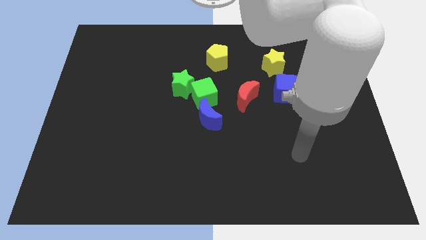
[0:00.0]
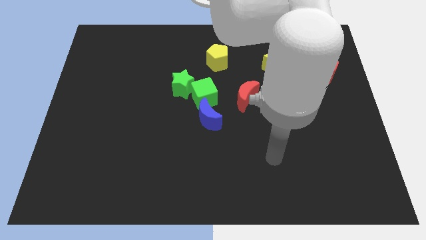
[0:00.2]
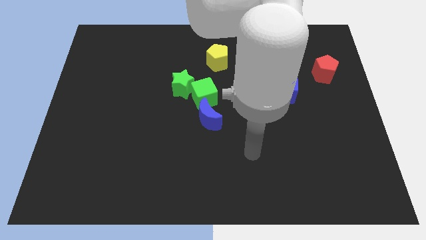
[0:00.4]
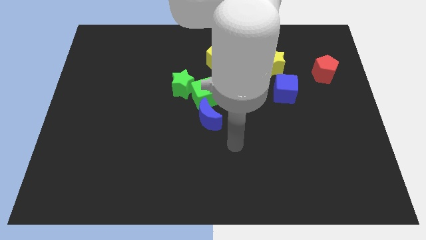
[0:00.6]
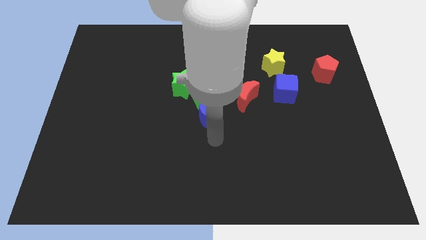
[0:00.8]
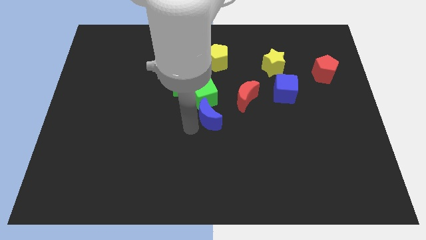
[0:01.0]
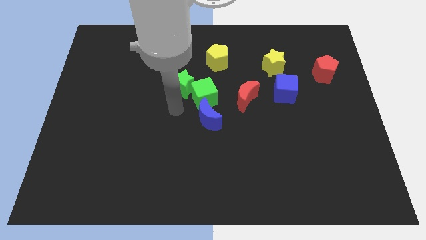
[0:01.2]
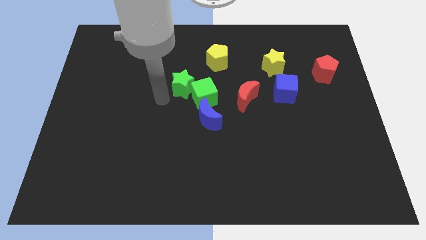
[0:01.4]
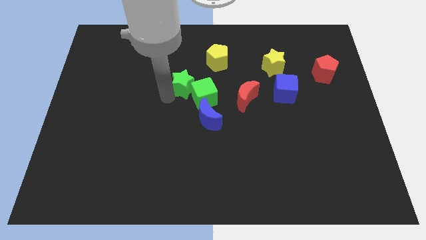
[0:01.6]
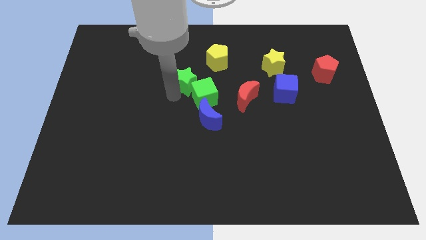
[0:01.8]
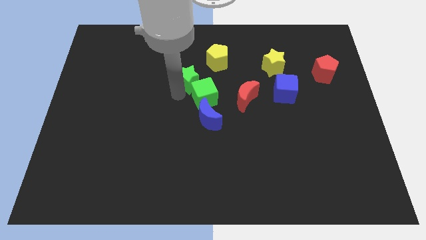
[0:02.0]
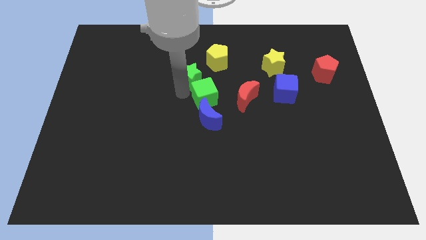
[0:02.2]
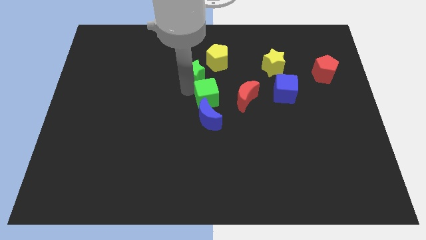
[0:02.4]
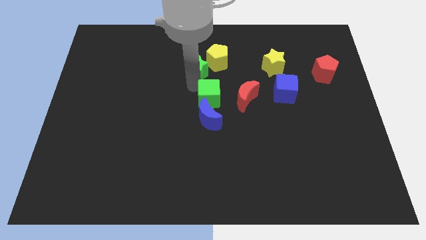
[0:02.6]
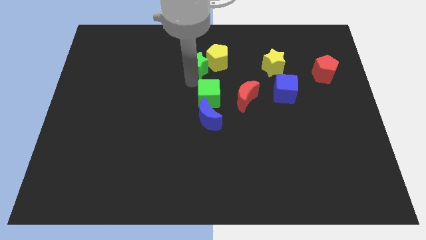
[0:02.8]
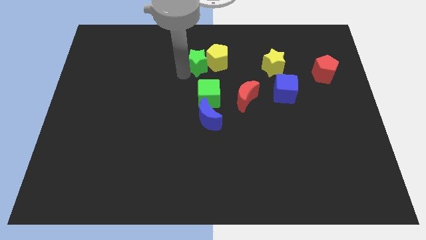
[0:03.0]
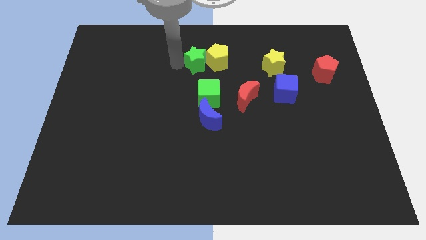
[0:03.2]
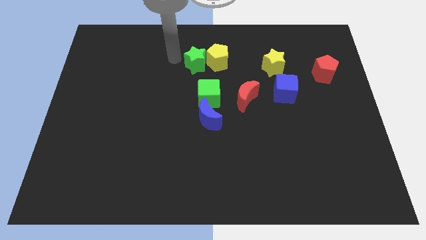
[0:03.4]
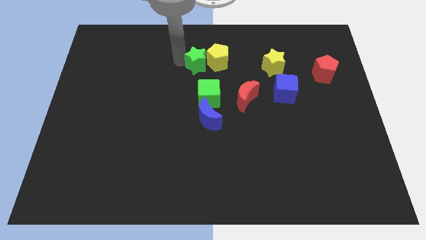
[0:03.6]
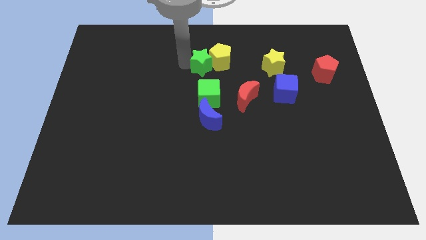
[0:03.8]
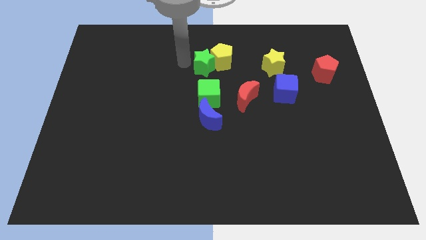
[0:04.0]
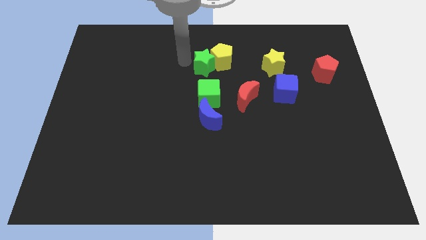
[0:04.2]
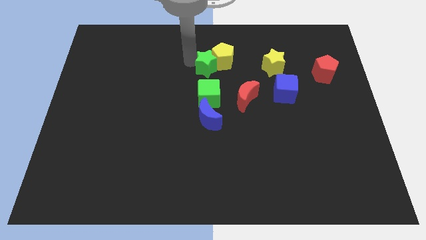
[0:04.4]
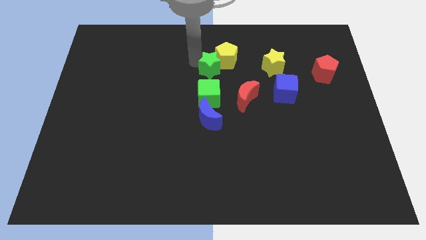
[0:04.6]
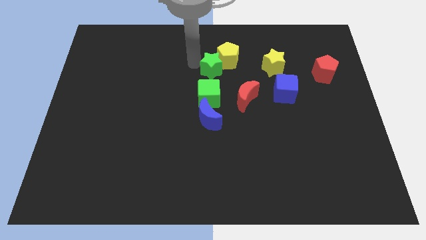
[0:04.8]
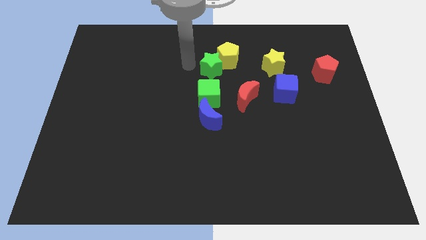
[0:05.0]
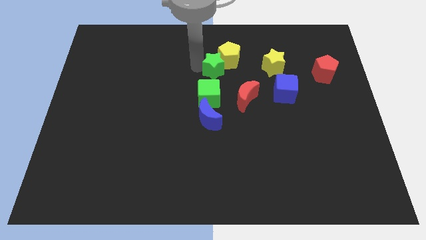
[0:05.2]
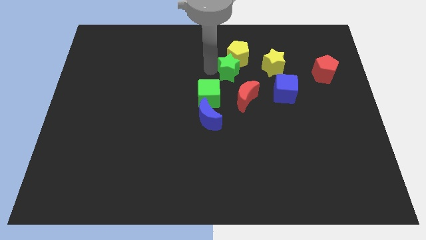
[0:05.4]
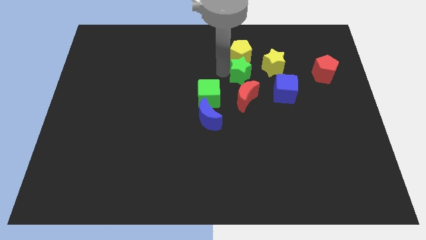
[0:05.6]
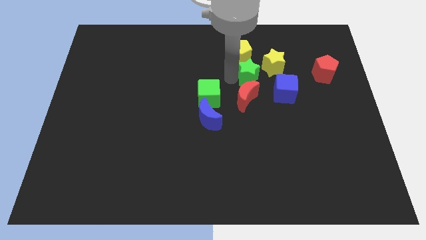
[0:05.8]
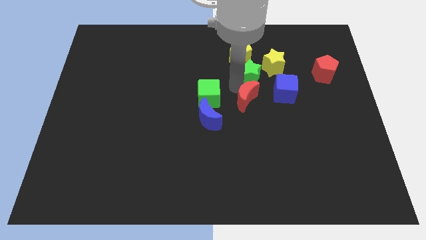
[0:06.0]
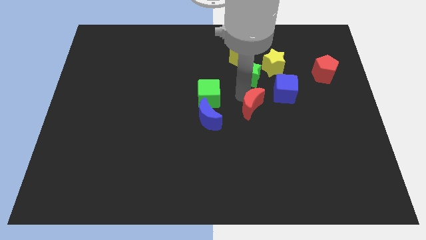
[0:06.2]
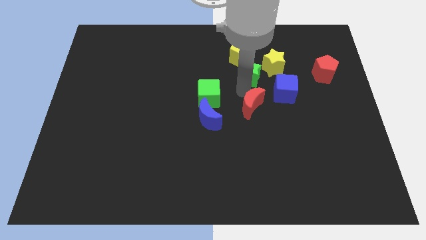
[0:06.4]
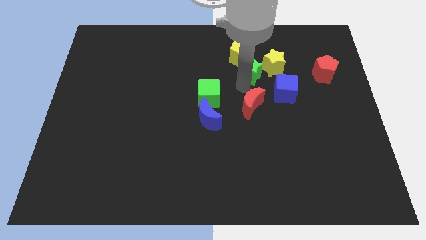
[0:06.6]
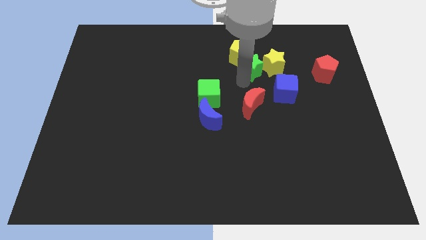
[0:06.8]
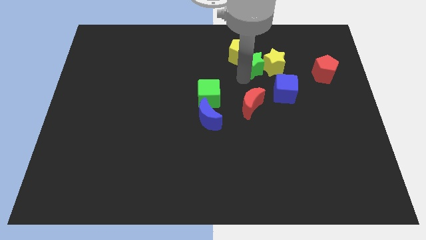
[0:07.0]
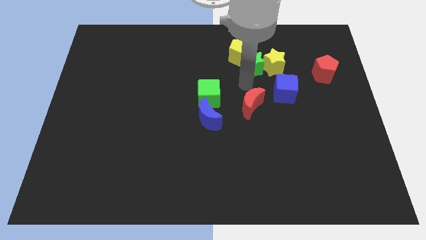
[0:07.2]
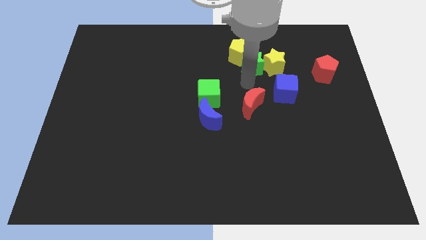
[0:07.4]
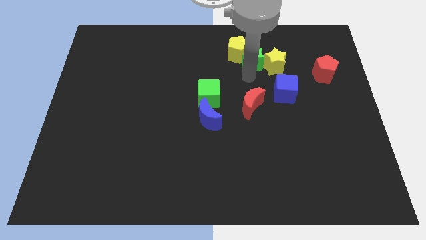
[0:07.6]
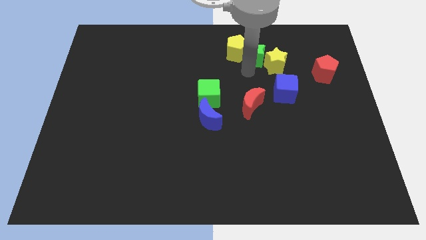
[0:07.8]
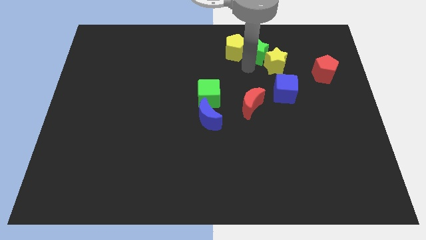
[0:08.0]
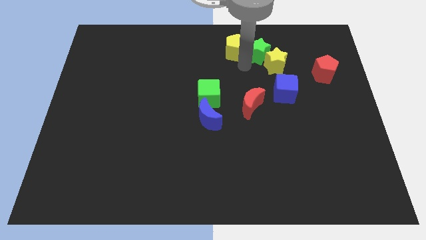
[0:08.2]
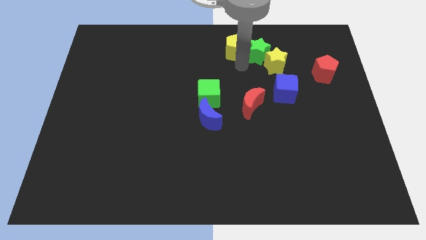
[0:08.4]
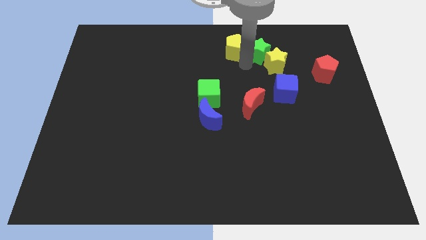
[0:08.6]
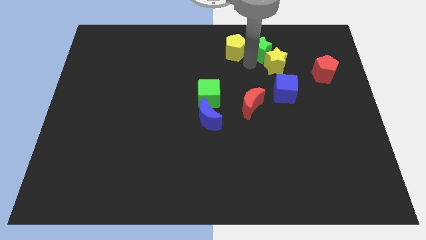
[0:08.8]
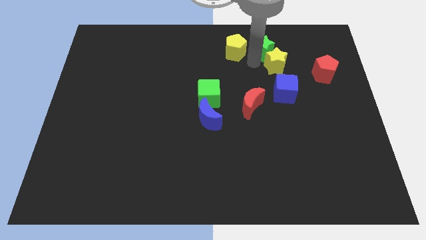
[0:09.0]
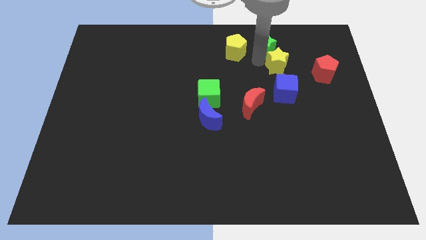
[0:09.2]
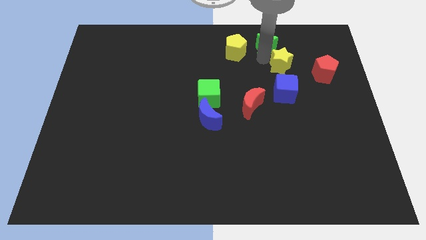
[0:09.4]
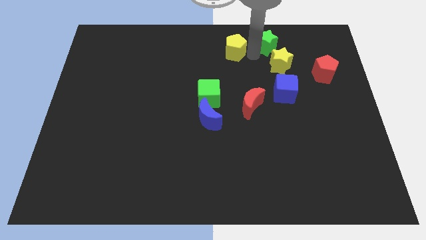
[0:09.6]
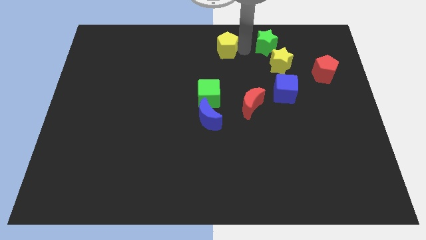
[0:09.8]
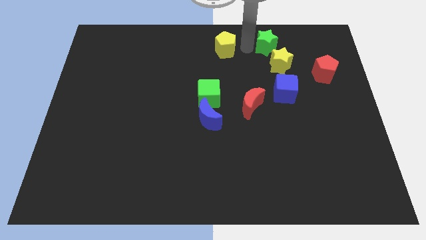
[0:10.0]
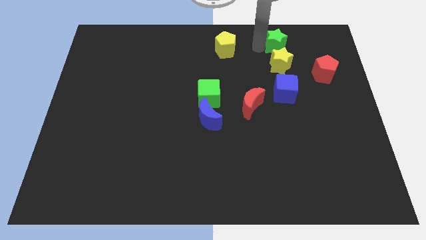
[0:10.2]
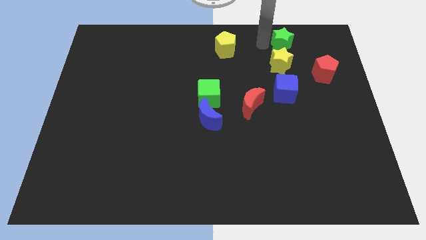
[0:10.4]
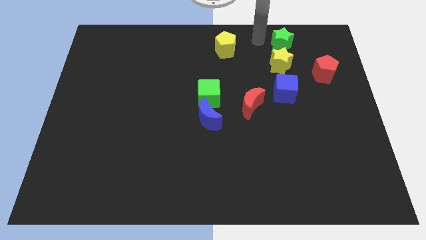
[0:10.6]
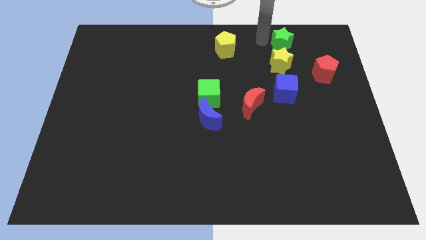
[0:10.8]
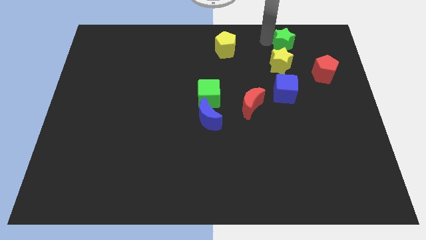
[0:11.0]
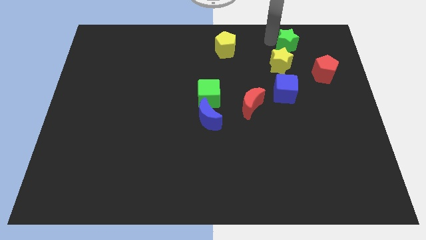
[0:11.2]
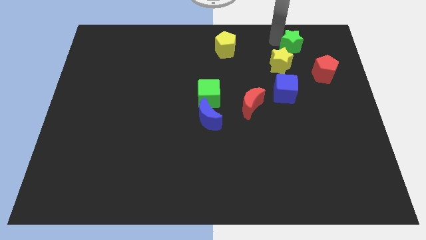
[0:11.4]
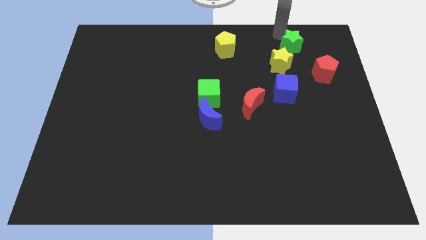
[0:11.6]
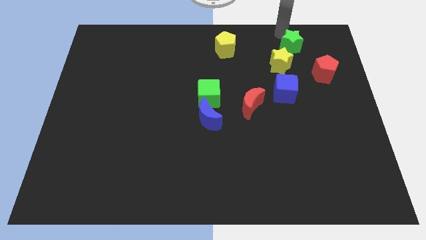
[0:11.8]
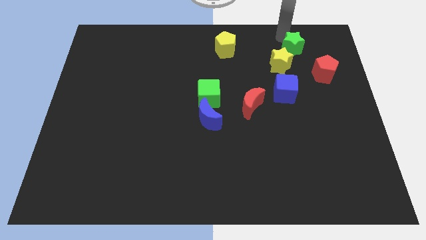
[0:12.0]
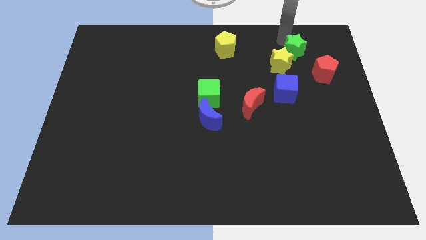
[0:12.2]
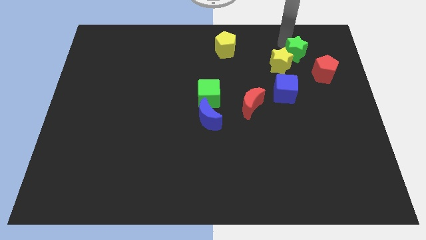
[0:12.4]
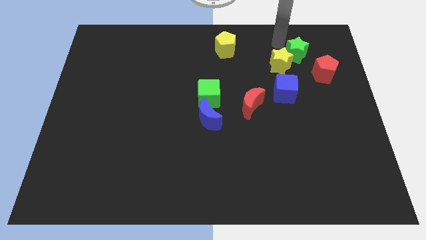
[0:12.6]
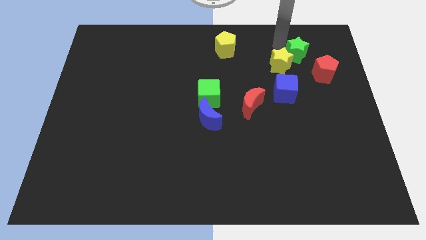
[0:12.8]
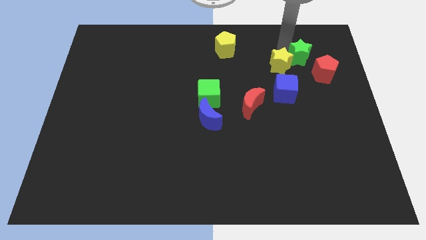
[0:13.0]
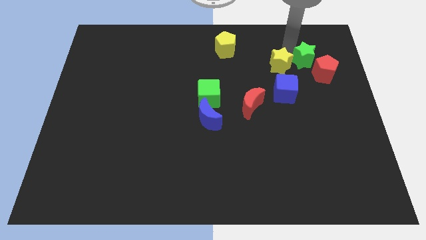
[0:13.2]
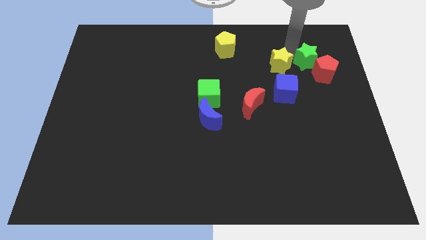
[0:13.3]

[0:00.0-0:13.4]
slide the green star close to the red pentagon
